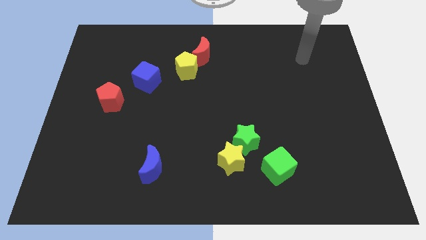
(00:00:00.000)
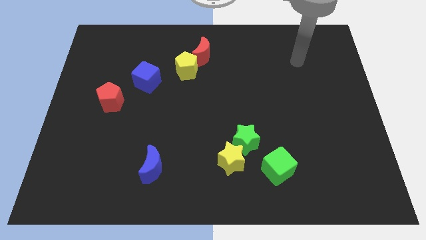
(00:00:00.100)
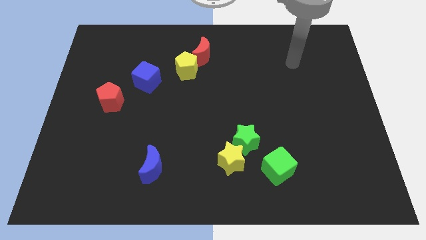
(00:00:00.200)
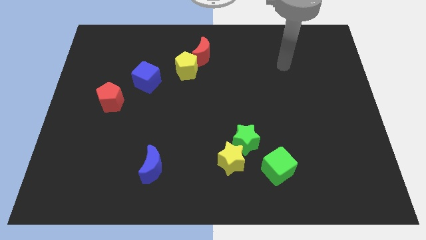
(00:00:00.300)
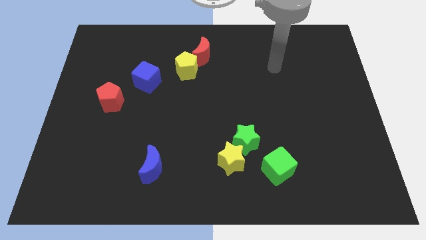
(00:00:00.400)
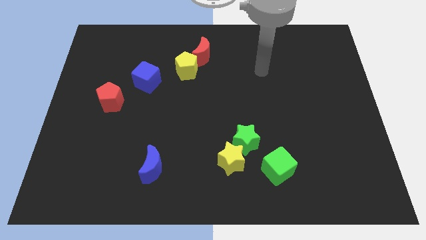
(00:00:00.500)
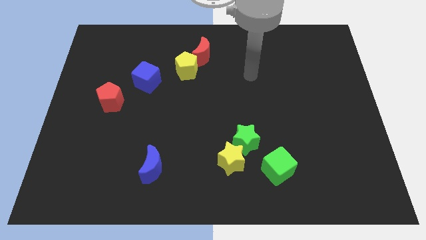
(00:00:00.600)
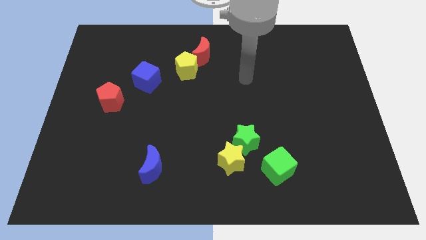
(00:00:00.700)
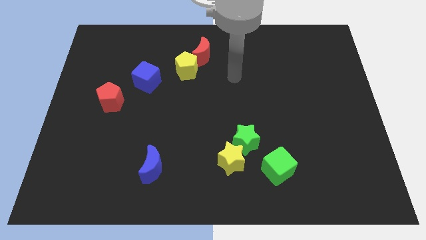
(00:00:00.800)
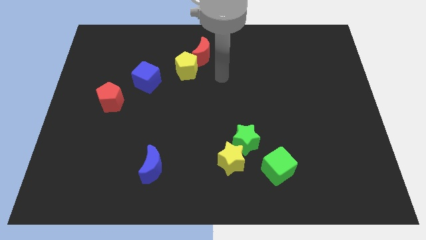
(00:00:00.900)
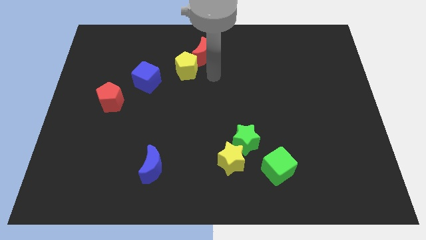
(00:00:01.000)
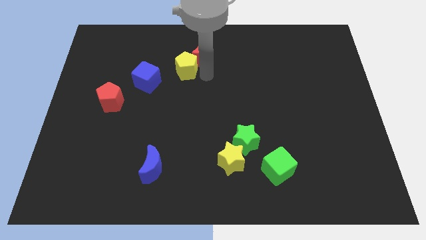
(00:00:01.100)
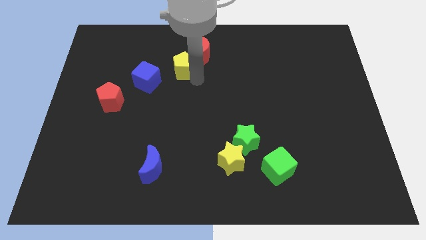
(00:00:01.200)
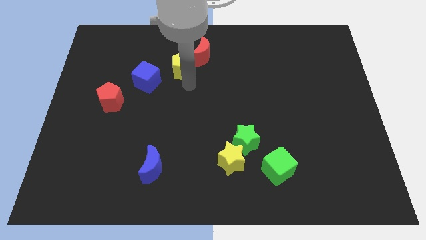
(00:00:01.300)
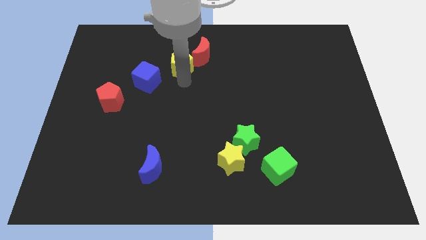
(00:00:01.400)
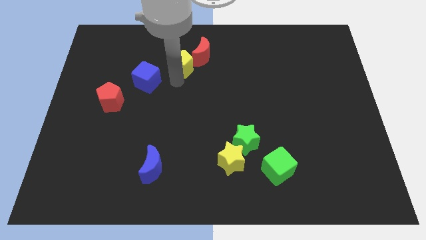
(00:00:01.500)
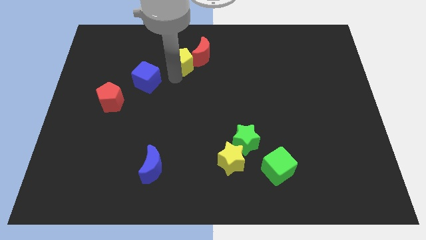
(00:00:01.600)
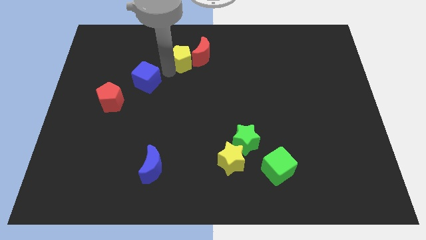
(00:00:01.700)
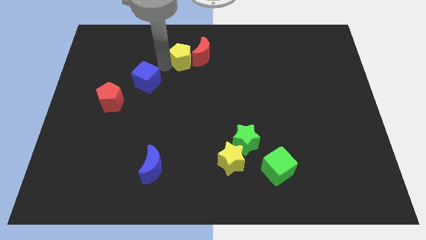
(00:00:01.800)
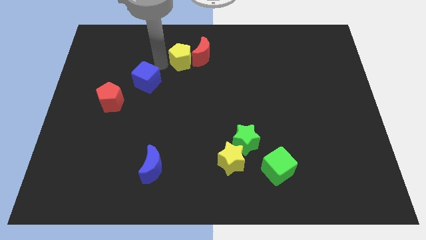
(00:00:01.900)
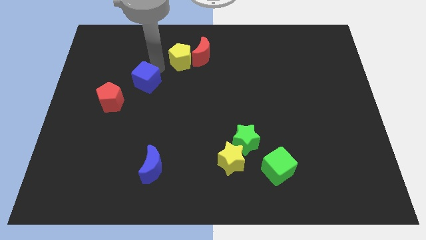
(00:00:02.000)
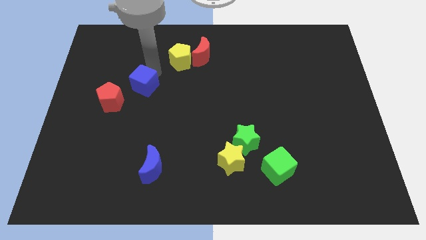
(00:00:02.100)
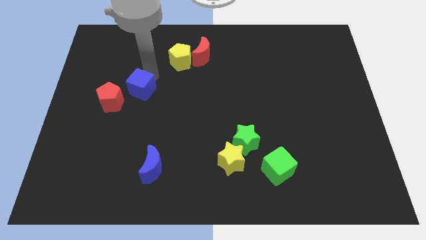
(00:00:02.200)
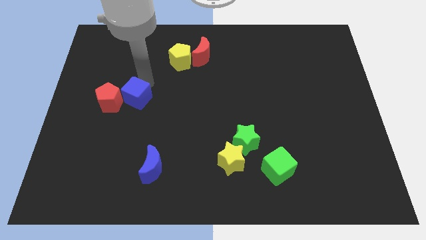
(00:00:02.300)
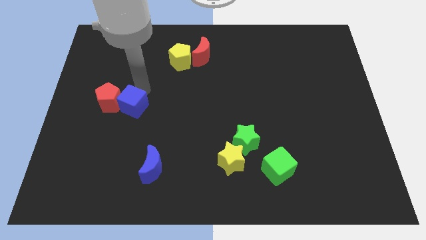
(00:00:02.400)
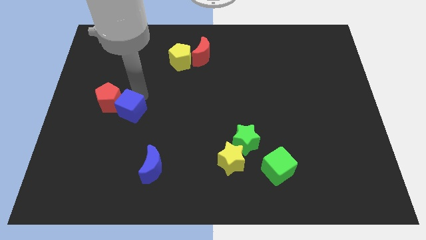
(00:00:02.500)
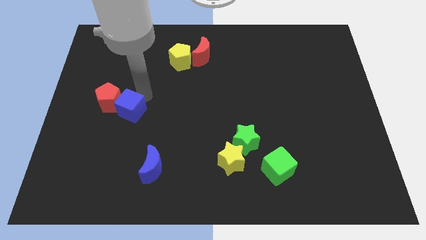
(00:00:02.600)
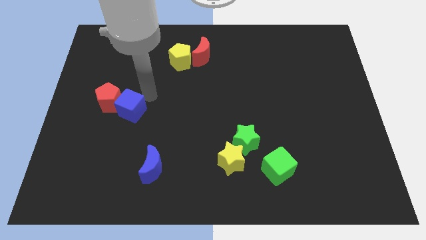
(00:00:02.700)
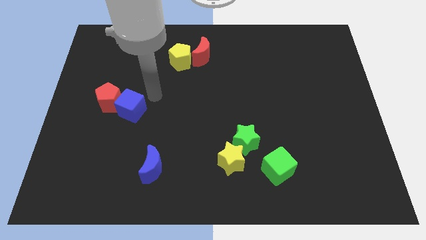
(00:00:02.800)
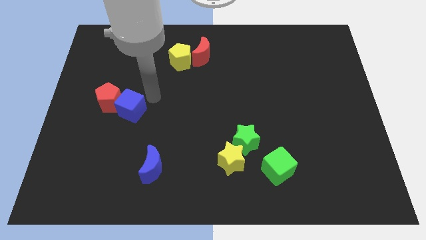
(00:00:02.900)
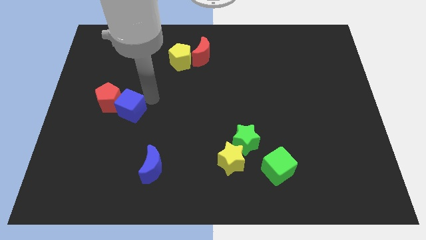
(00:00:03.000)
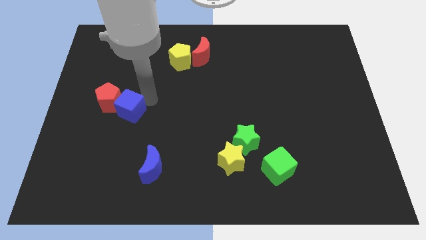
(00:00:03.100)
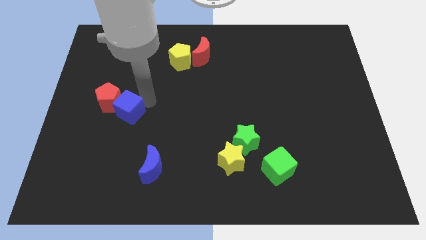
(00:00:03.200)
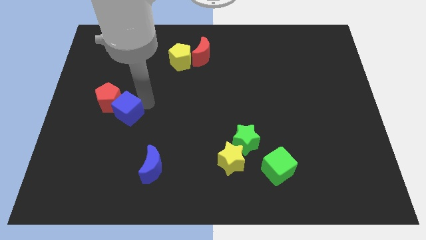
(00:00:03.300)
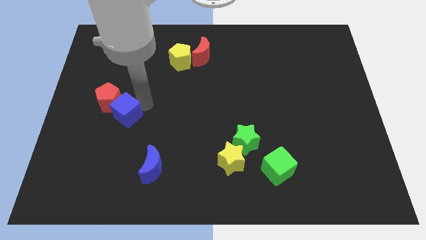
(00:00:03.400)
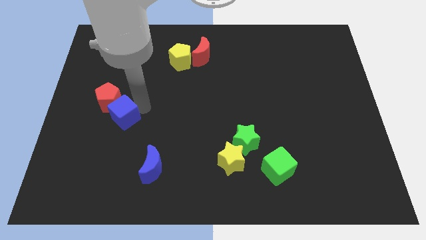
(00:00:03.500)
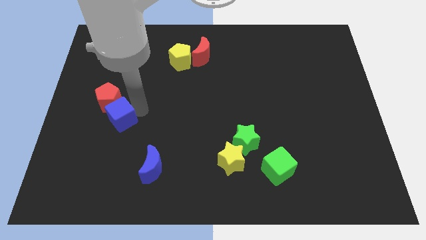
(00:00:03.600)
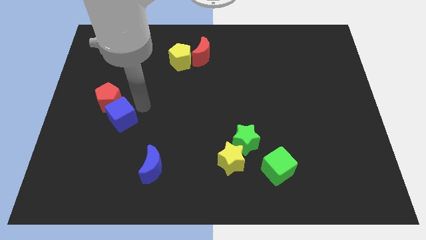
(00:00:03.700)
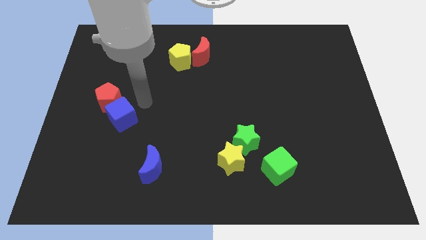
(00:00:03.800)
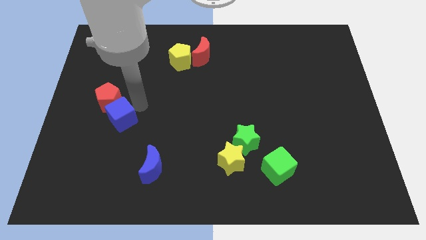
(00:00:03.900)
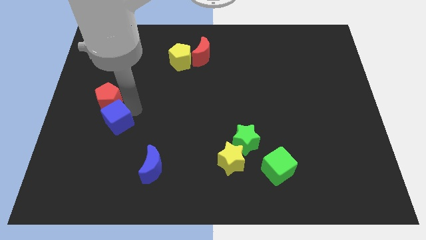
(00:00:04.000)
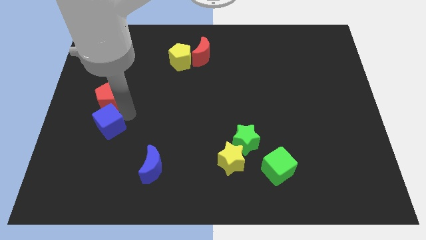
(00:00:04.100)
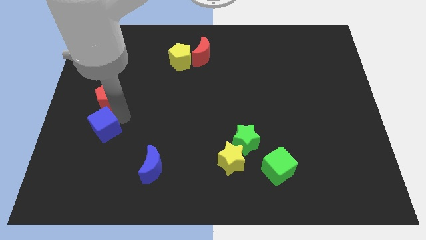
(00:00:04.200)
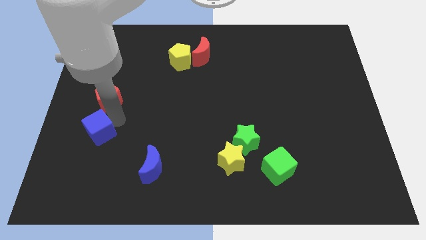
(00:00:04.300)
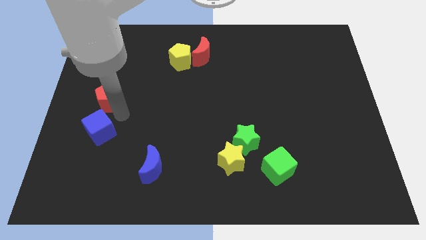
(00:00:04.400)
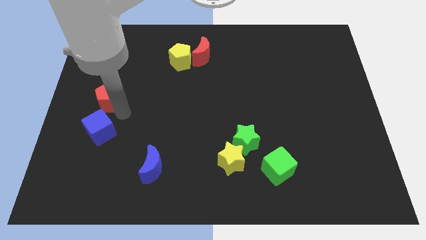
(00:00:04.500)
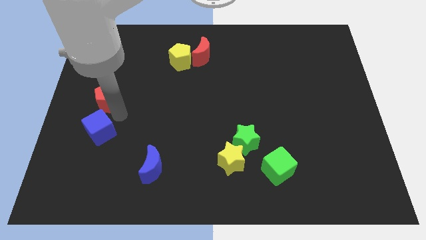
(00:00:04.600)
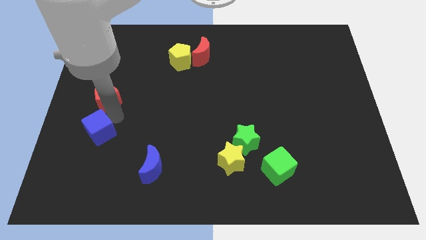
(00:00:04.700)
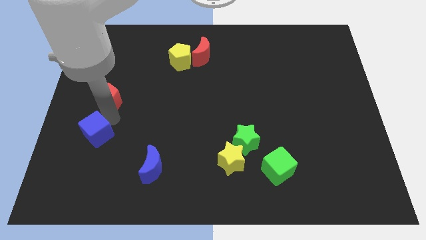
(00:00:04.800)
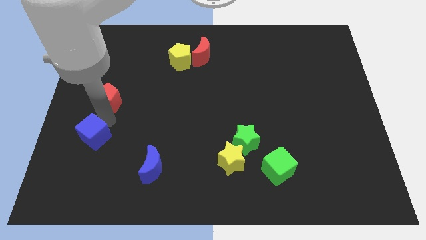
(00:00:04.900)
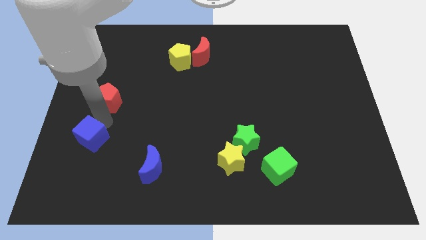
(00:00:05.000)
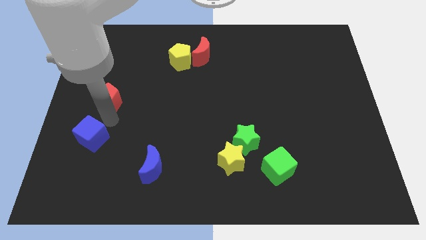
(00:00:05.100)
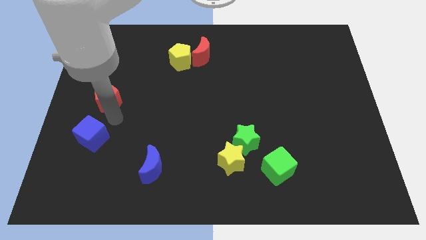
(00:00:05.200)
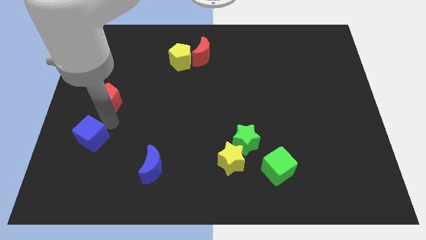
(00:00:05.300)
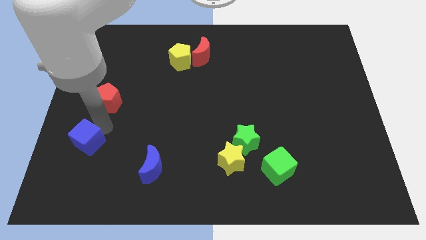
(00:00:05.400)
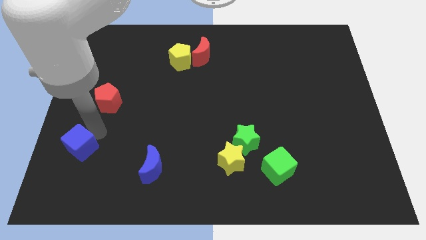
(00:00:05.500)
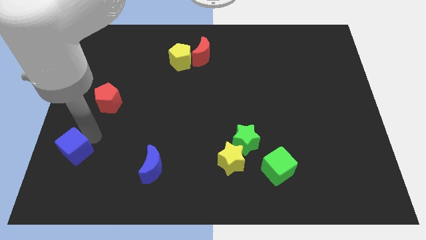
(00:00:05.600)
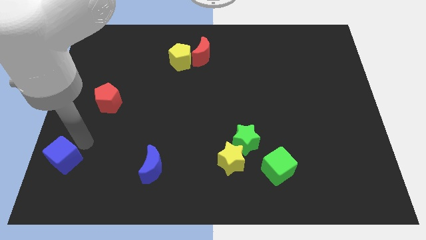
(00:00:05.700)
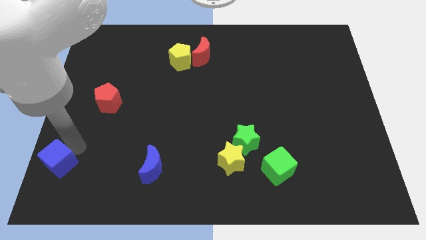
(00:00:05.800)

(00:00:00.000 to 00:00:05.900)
put the blue cube to the bottom left of the board
